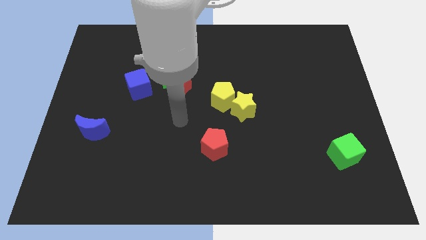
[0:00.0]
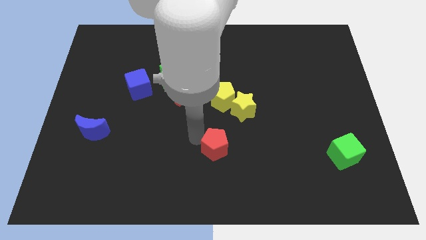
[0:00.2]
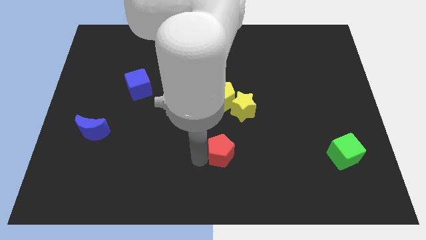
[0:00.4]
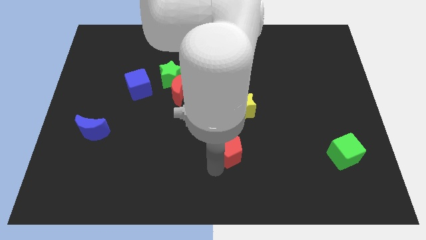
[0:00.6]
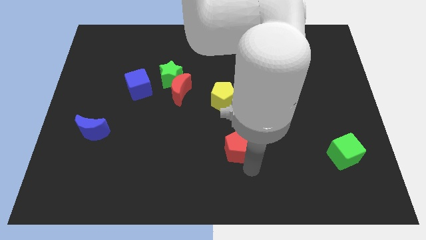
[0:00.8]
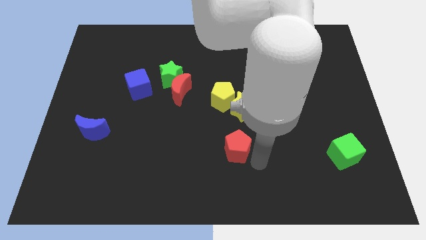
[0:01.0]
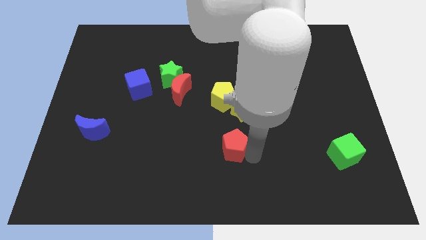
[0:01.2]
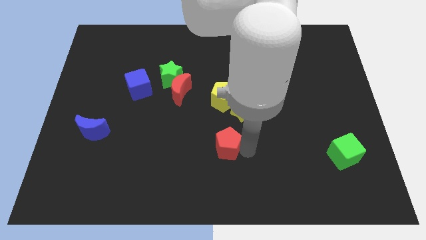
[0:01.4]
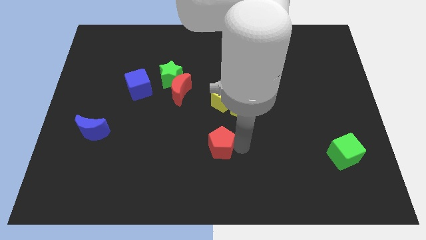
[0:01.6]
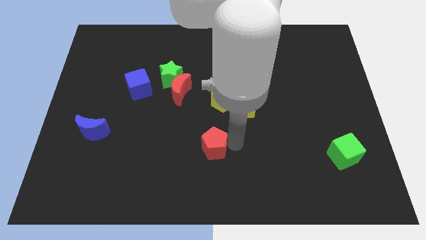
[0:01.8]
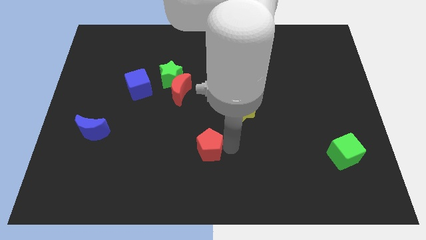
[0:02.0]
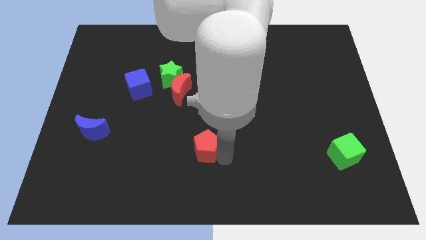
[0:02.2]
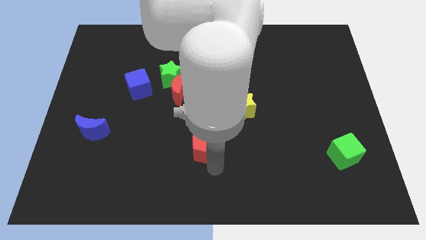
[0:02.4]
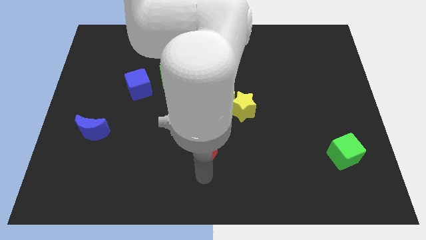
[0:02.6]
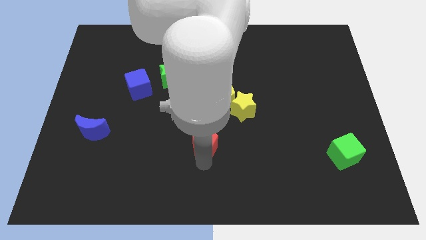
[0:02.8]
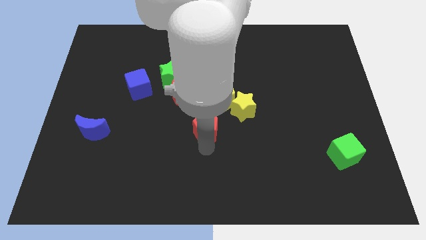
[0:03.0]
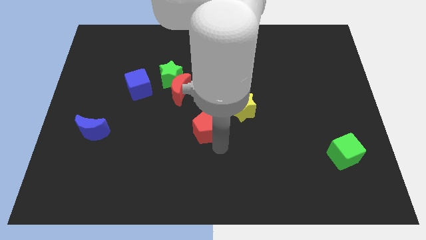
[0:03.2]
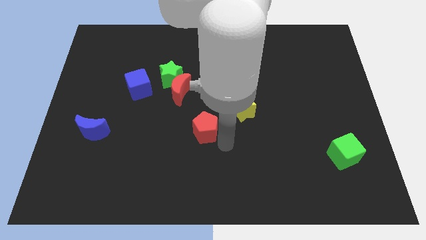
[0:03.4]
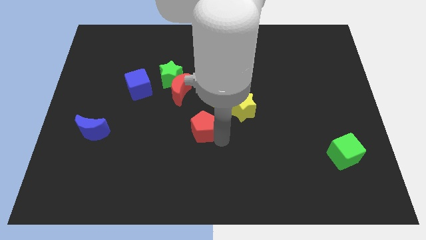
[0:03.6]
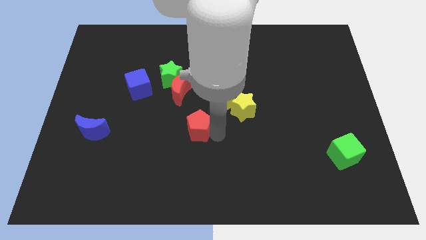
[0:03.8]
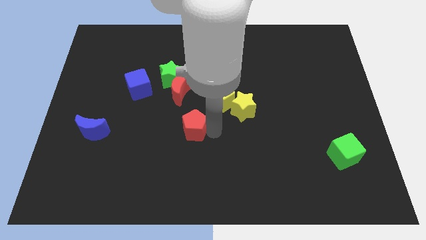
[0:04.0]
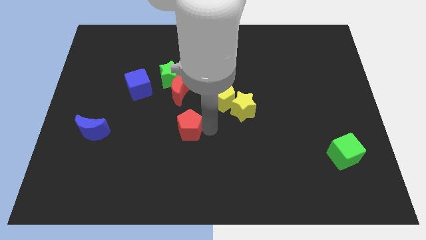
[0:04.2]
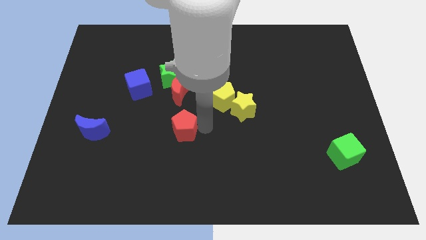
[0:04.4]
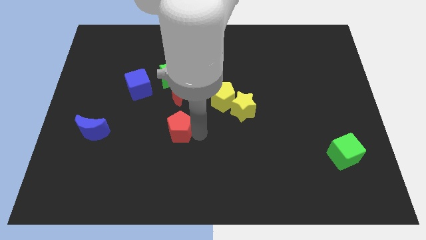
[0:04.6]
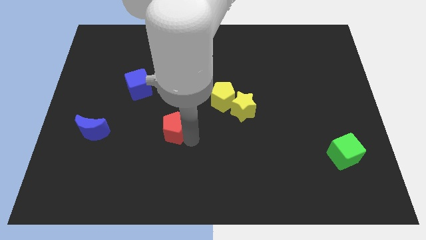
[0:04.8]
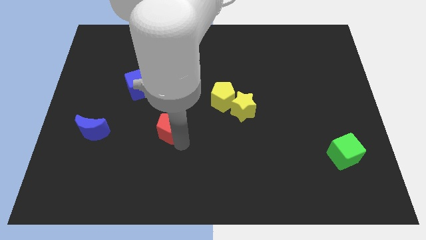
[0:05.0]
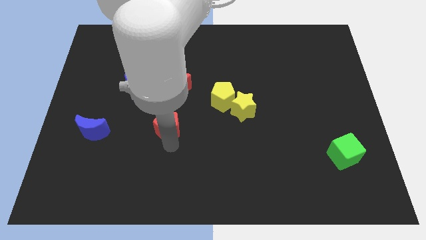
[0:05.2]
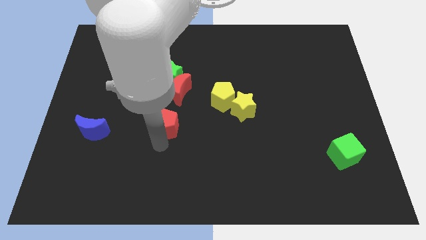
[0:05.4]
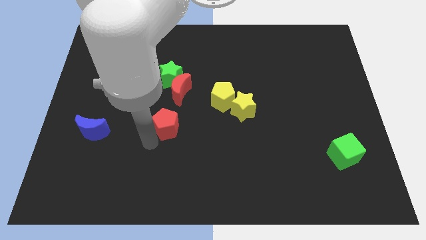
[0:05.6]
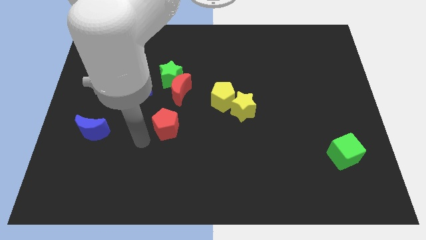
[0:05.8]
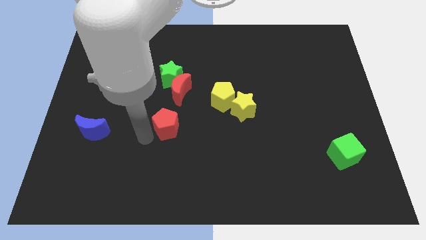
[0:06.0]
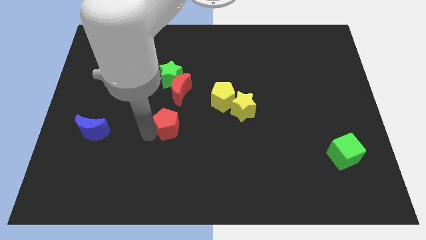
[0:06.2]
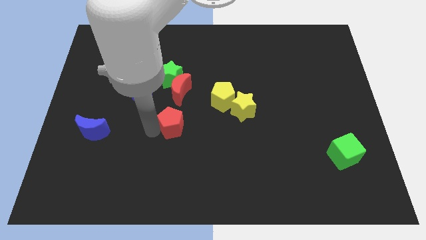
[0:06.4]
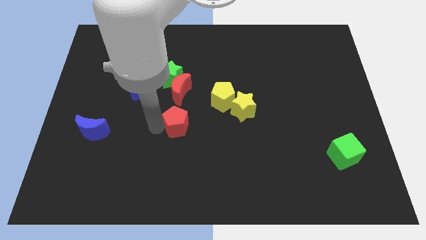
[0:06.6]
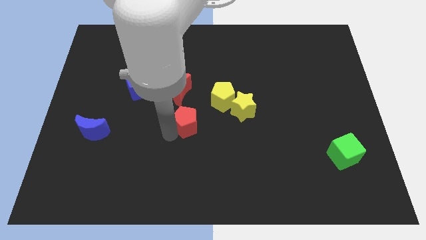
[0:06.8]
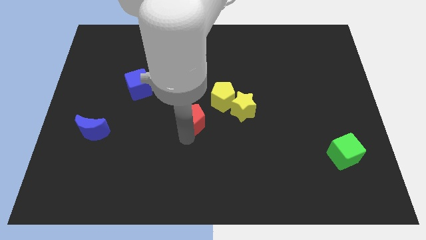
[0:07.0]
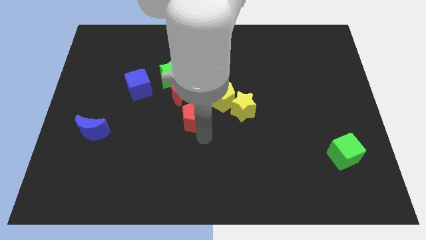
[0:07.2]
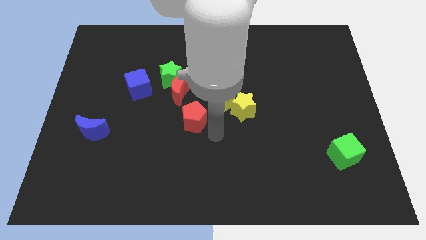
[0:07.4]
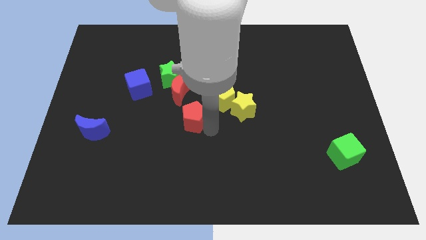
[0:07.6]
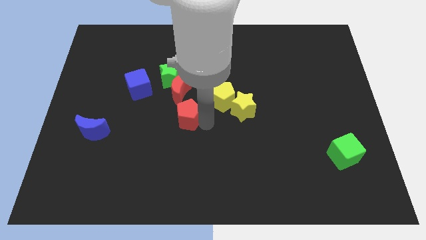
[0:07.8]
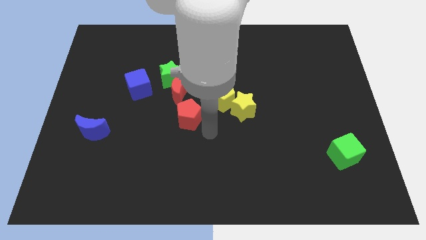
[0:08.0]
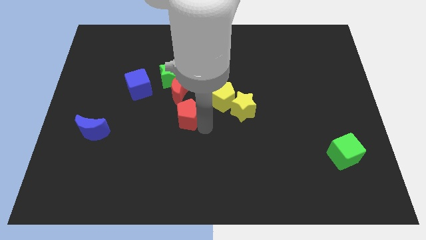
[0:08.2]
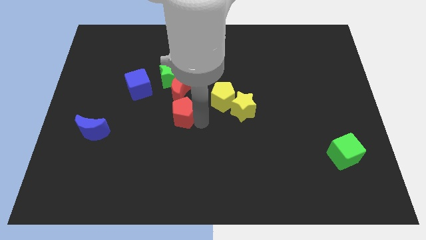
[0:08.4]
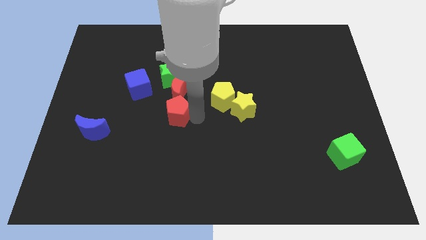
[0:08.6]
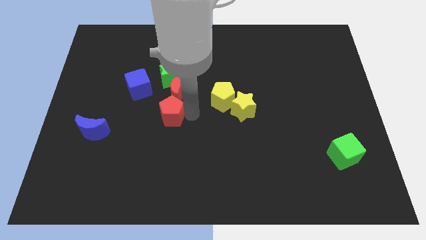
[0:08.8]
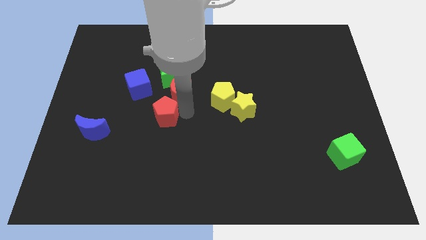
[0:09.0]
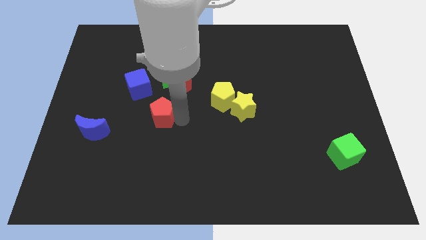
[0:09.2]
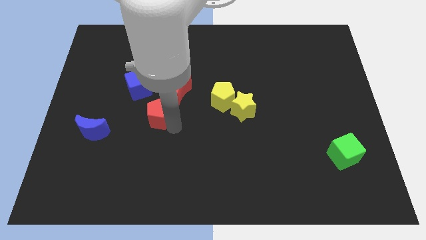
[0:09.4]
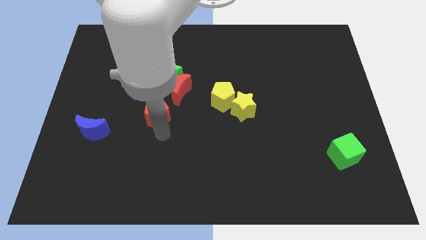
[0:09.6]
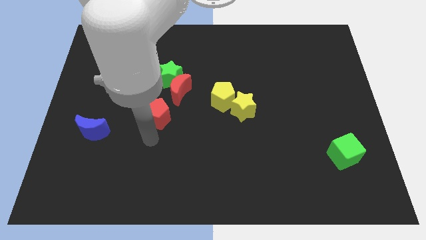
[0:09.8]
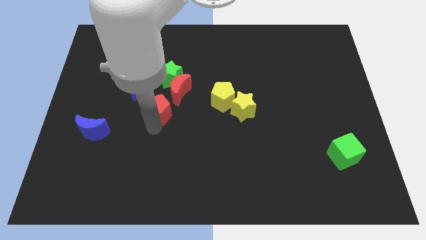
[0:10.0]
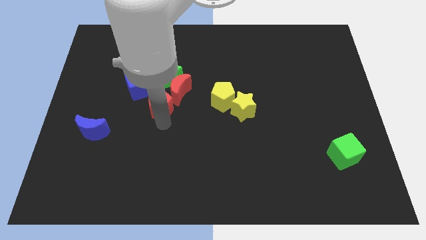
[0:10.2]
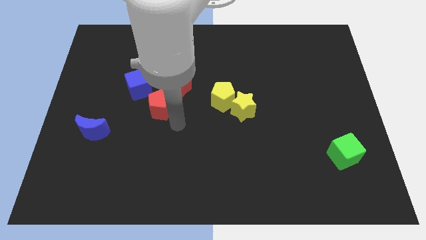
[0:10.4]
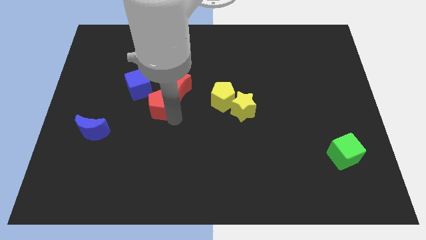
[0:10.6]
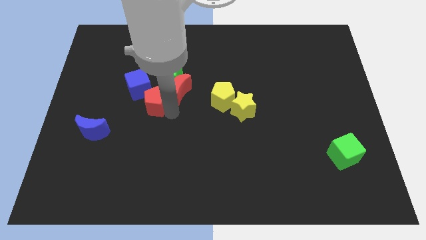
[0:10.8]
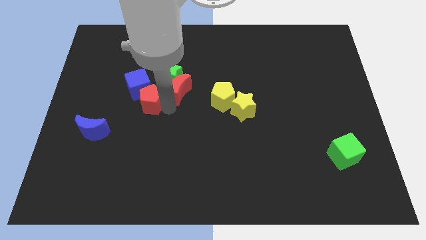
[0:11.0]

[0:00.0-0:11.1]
put the red pentagon towards the blue cube

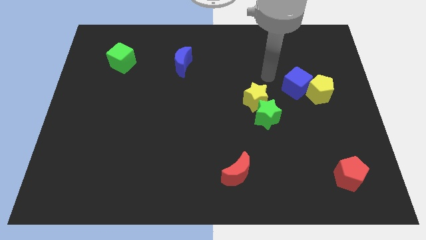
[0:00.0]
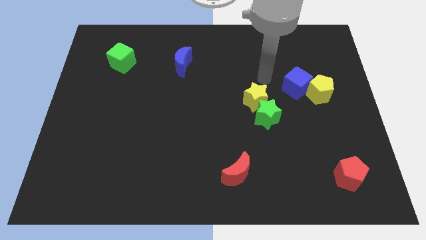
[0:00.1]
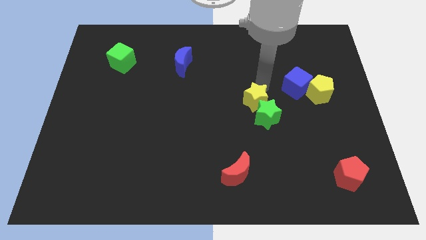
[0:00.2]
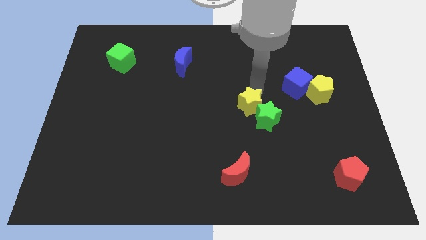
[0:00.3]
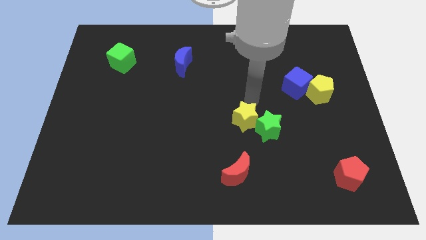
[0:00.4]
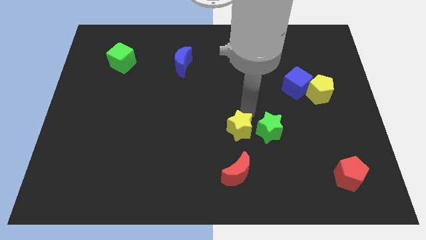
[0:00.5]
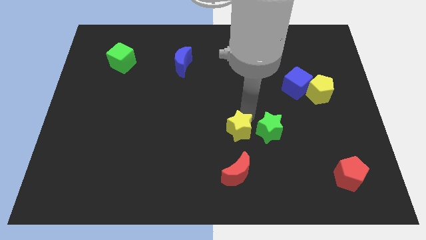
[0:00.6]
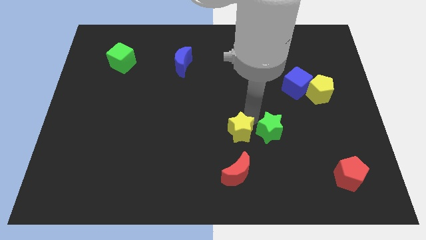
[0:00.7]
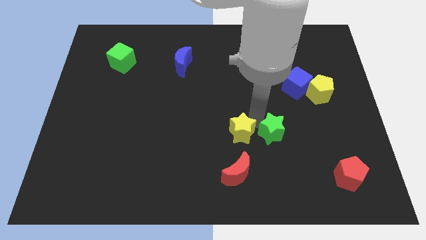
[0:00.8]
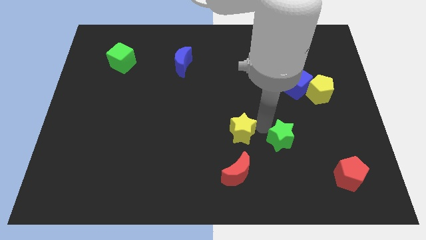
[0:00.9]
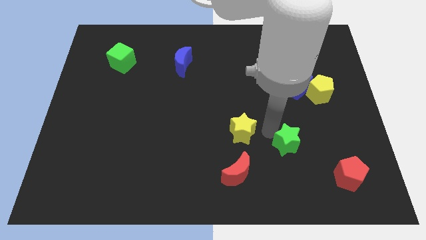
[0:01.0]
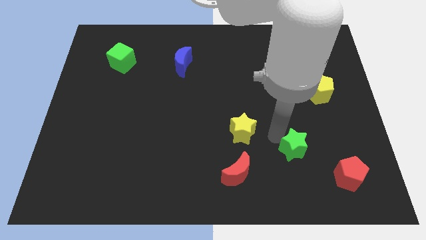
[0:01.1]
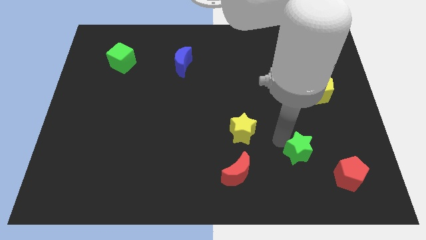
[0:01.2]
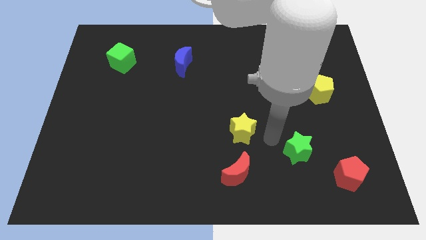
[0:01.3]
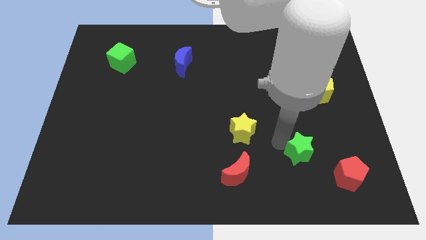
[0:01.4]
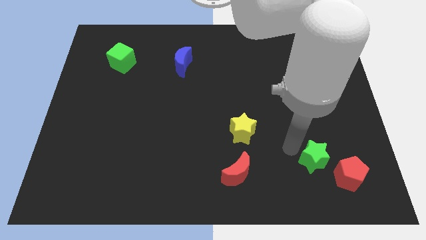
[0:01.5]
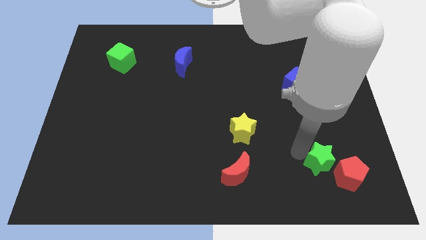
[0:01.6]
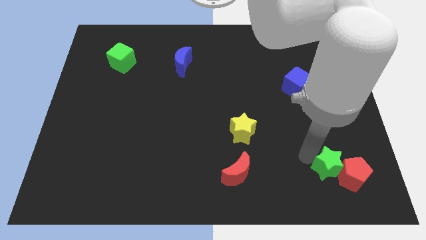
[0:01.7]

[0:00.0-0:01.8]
move the green star towards the red pentagon
